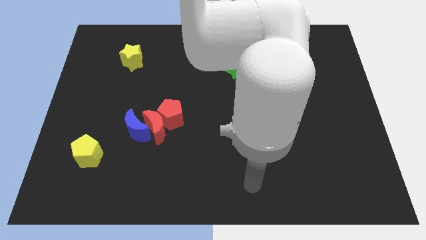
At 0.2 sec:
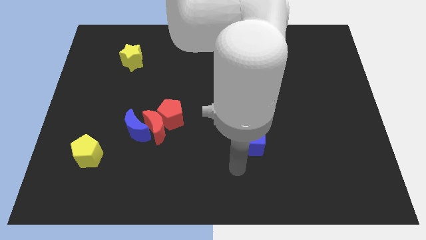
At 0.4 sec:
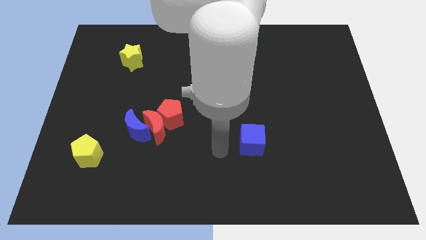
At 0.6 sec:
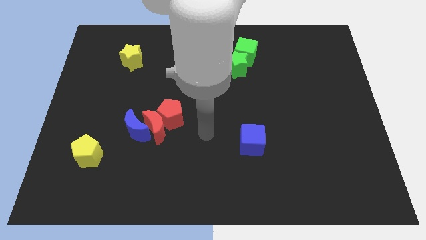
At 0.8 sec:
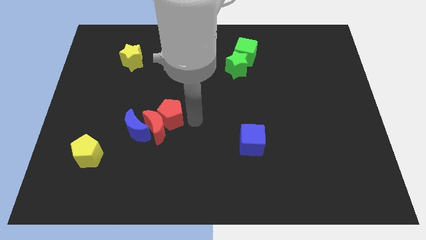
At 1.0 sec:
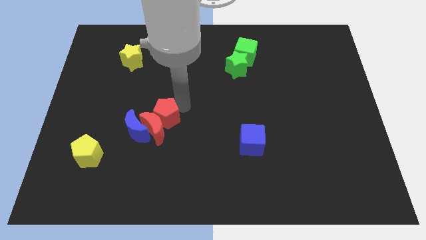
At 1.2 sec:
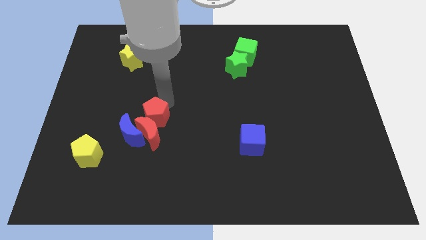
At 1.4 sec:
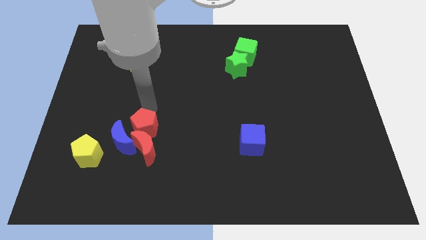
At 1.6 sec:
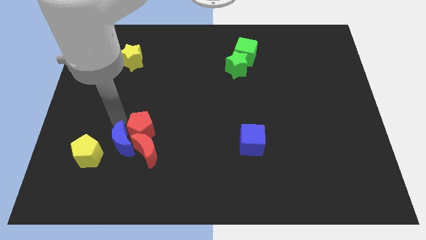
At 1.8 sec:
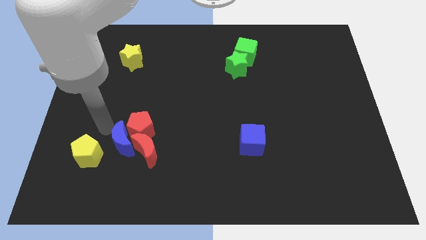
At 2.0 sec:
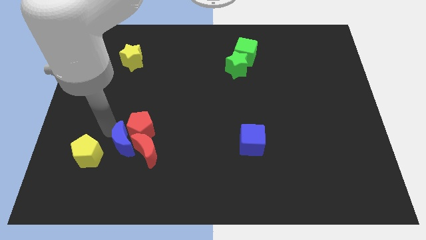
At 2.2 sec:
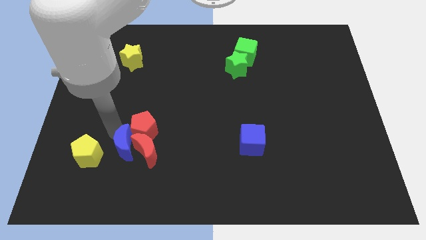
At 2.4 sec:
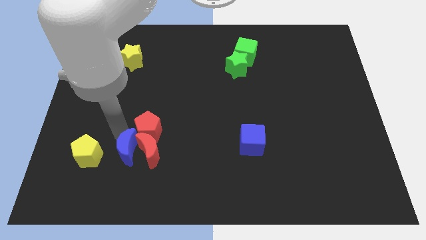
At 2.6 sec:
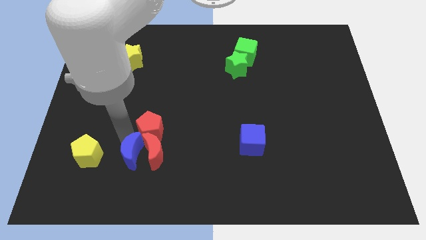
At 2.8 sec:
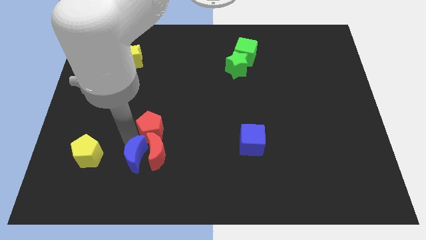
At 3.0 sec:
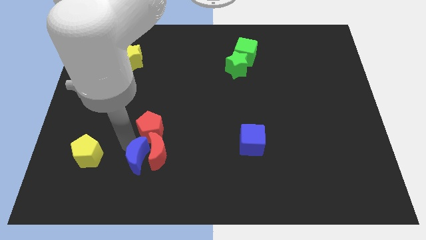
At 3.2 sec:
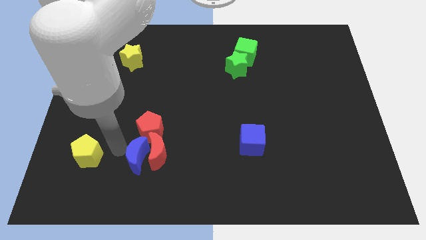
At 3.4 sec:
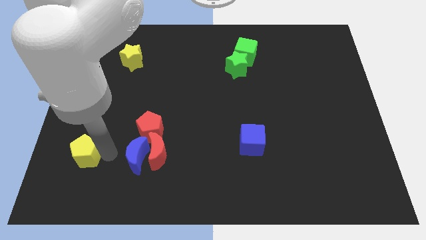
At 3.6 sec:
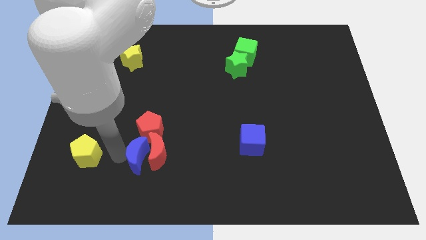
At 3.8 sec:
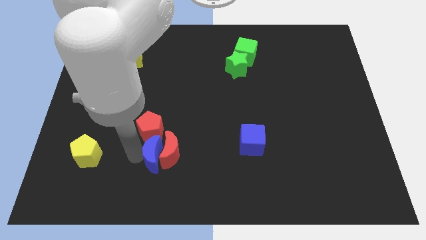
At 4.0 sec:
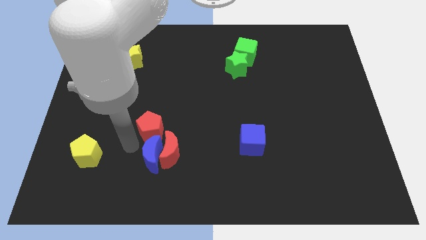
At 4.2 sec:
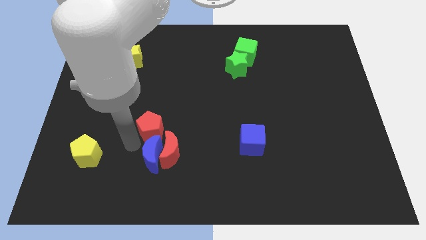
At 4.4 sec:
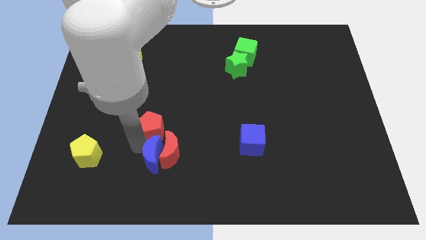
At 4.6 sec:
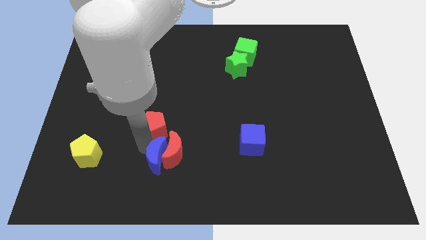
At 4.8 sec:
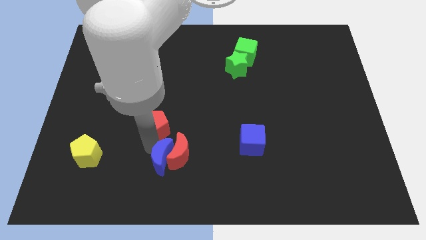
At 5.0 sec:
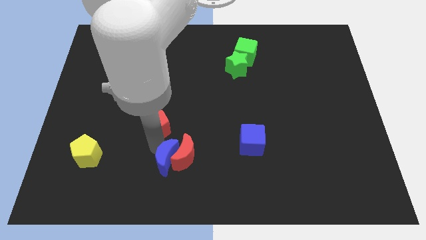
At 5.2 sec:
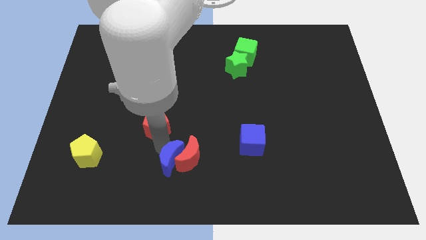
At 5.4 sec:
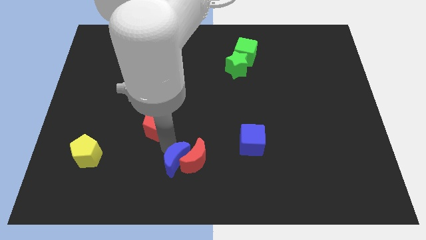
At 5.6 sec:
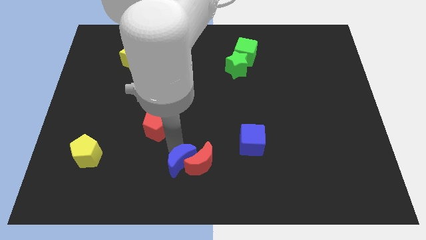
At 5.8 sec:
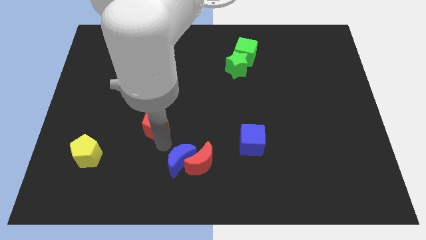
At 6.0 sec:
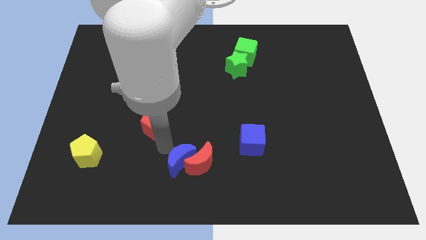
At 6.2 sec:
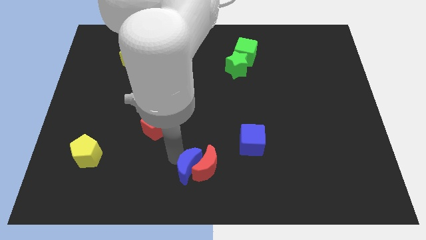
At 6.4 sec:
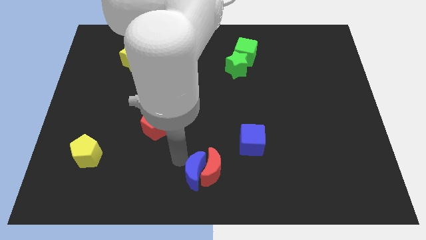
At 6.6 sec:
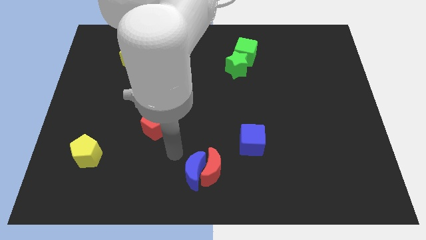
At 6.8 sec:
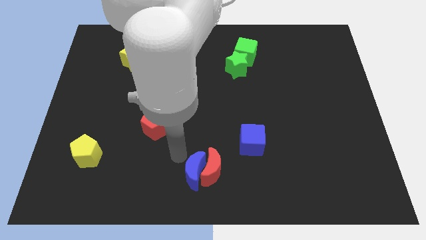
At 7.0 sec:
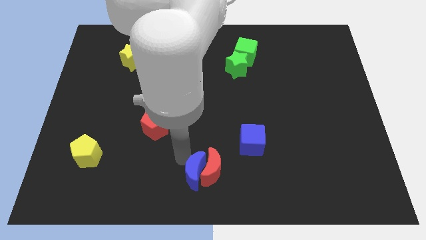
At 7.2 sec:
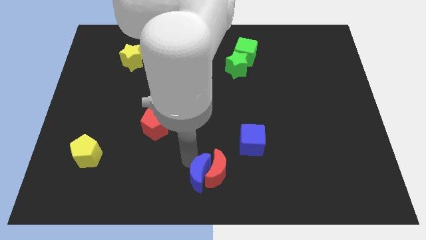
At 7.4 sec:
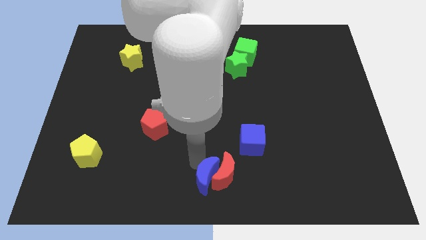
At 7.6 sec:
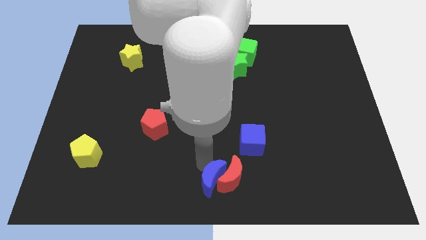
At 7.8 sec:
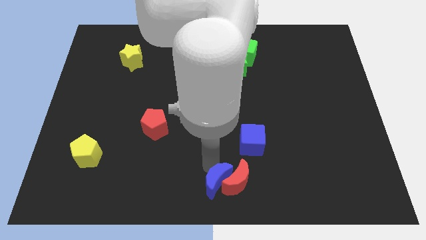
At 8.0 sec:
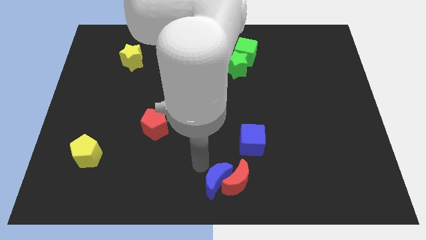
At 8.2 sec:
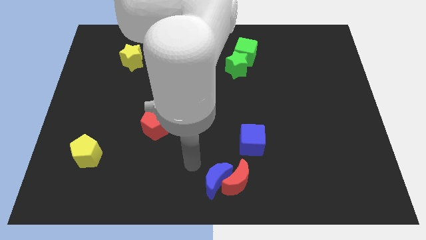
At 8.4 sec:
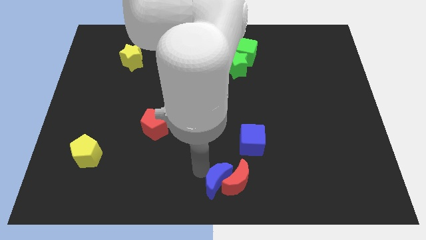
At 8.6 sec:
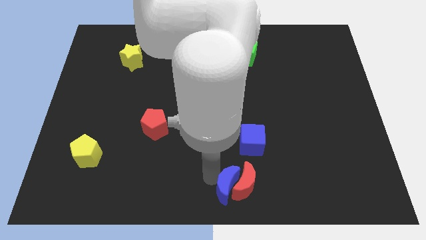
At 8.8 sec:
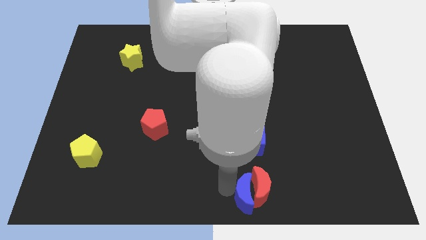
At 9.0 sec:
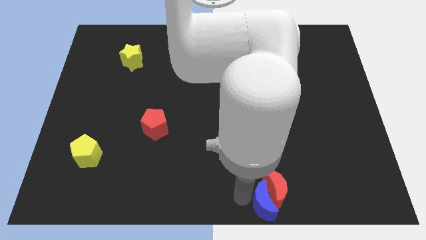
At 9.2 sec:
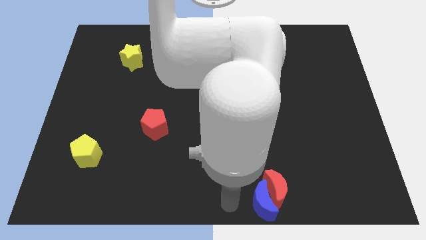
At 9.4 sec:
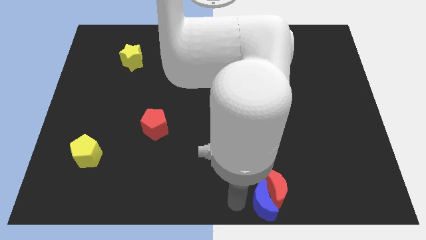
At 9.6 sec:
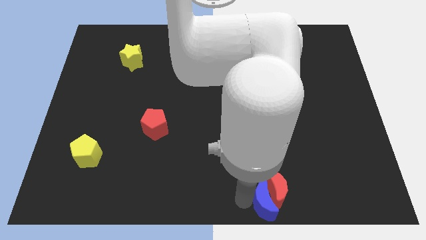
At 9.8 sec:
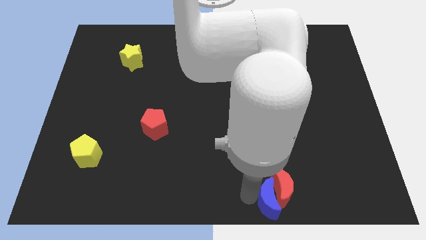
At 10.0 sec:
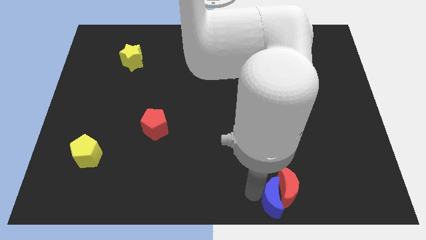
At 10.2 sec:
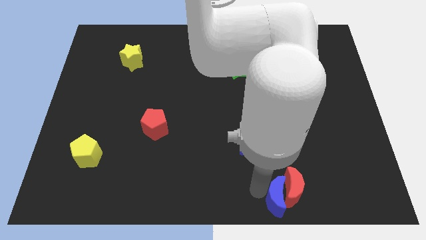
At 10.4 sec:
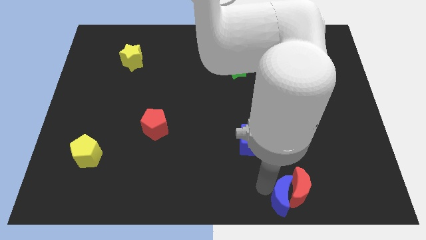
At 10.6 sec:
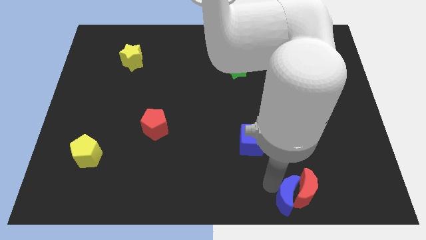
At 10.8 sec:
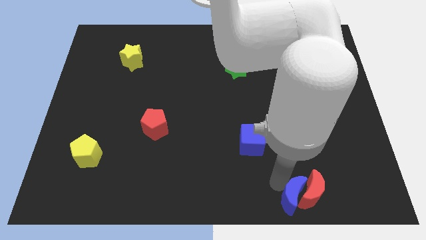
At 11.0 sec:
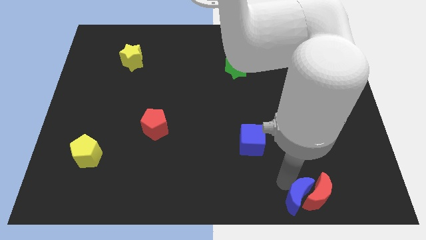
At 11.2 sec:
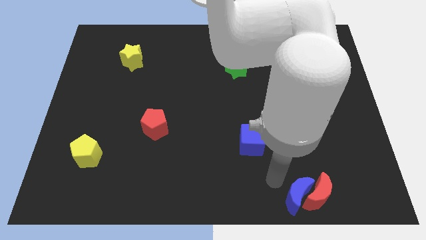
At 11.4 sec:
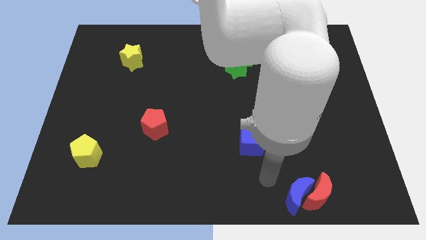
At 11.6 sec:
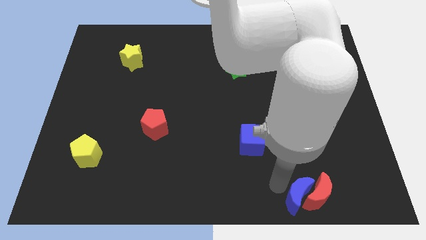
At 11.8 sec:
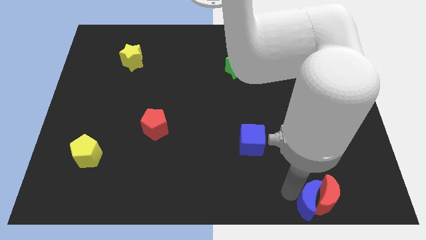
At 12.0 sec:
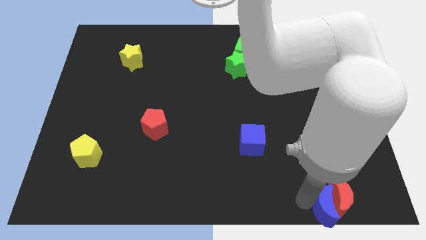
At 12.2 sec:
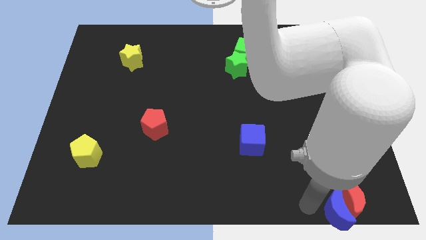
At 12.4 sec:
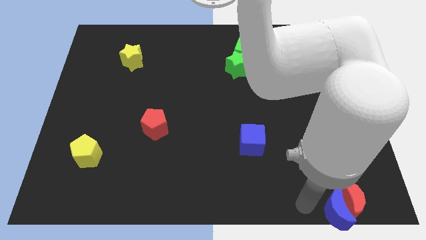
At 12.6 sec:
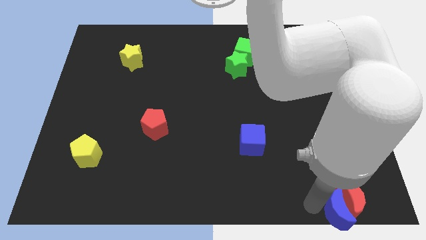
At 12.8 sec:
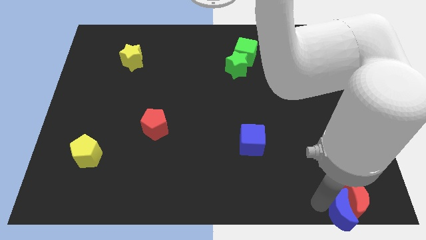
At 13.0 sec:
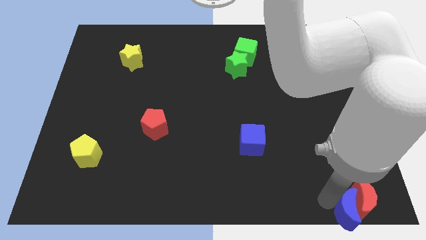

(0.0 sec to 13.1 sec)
push the blue moon to the lower right corner
